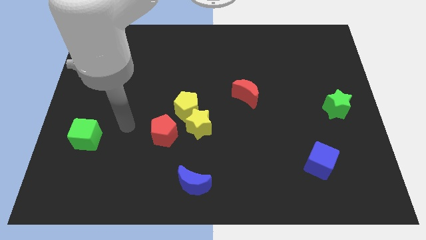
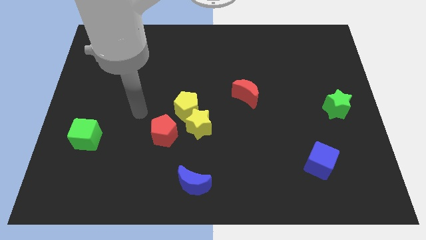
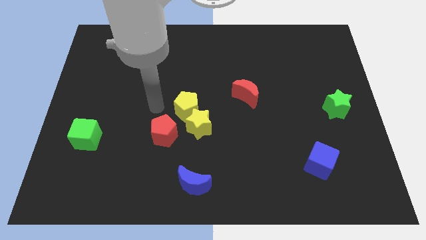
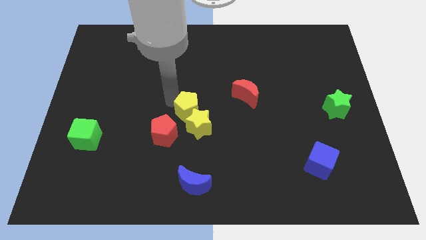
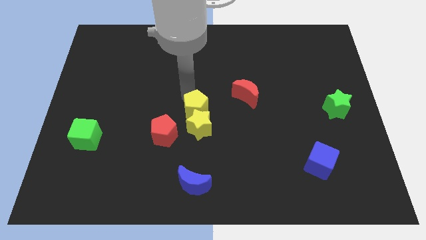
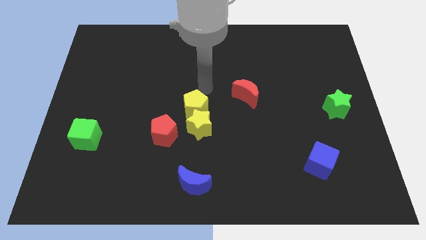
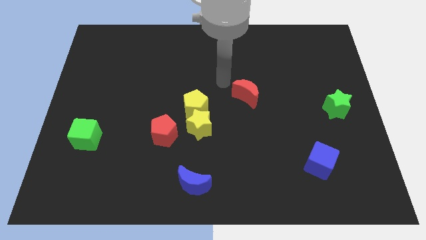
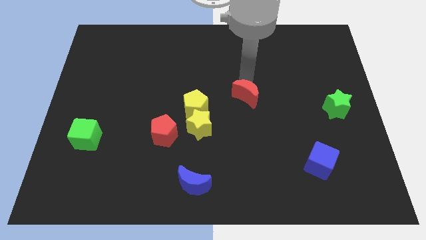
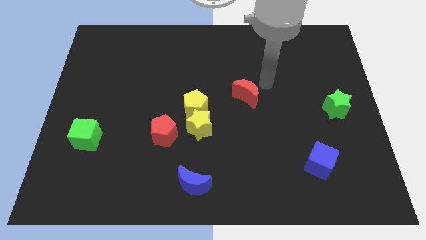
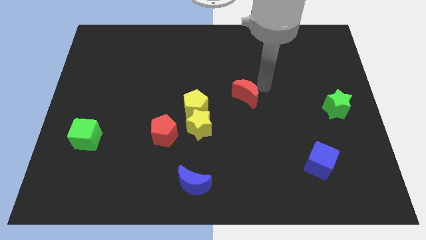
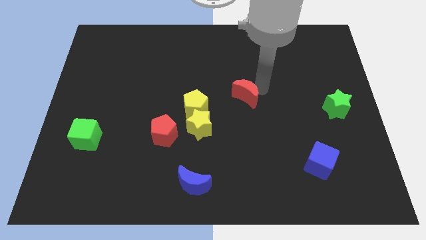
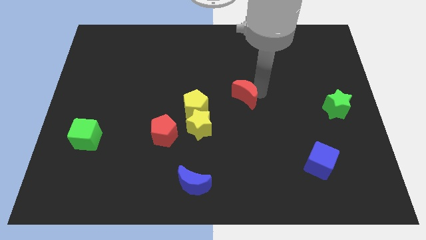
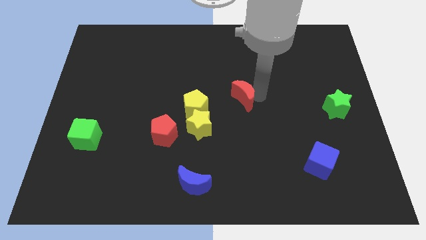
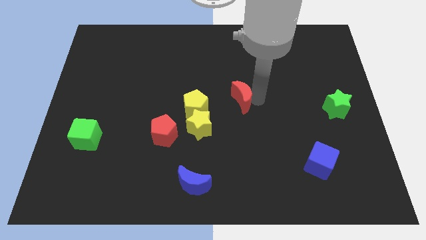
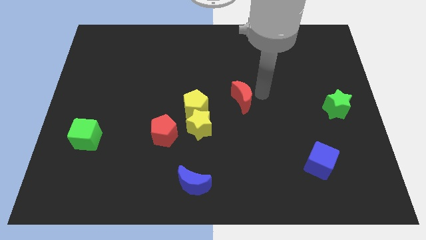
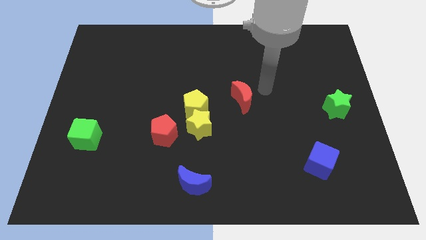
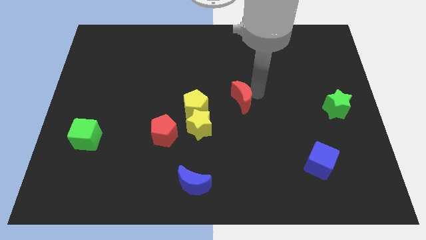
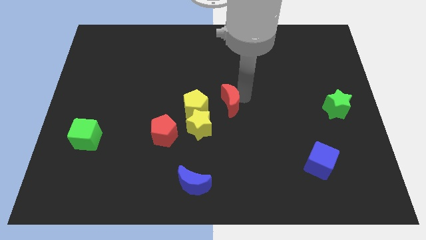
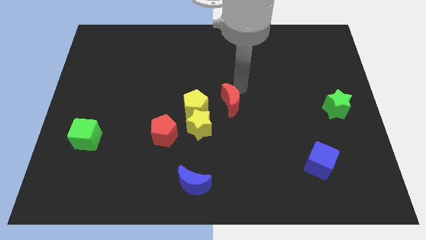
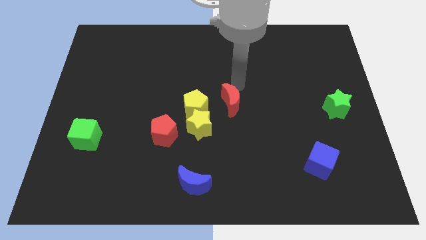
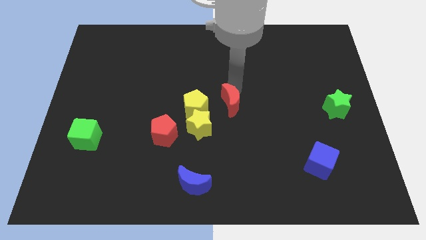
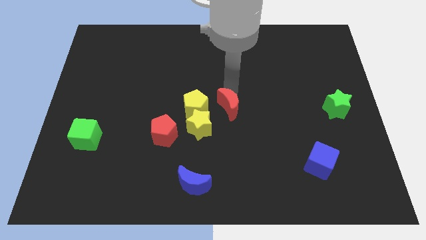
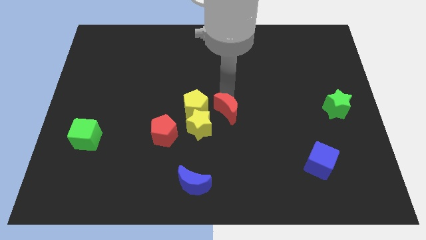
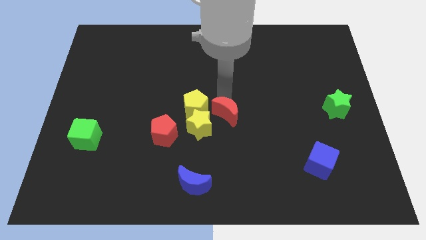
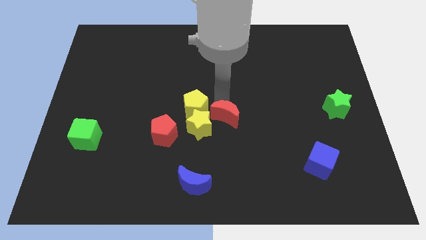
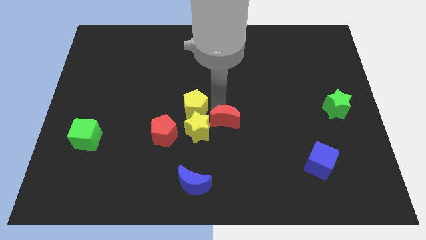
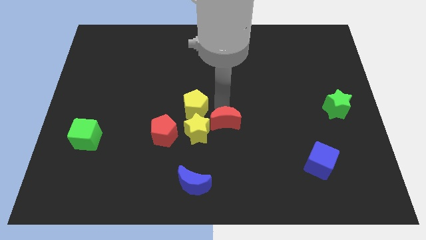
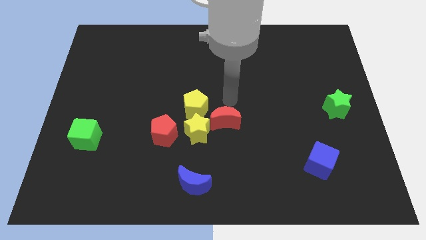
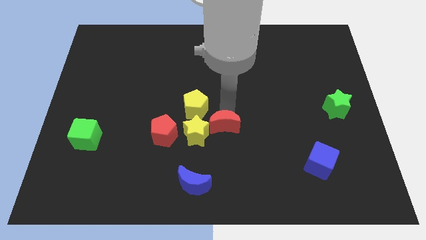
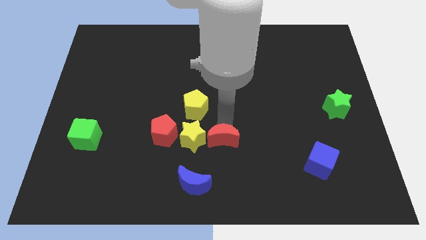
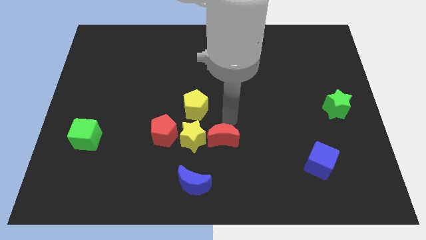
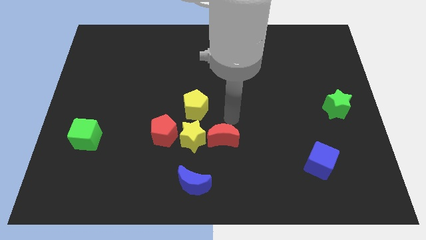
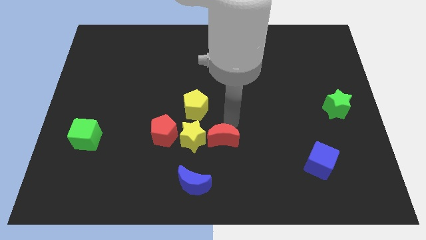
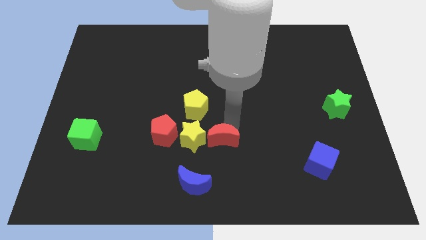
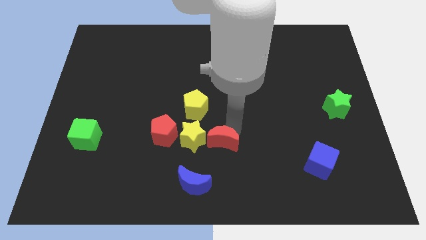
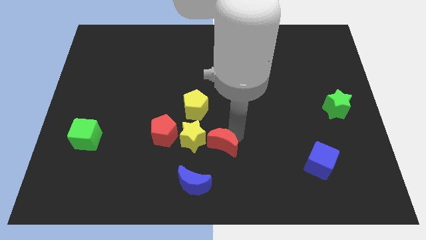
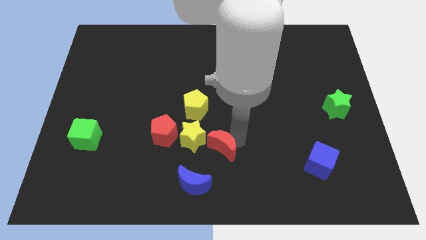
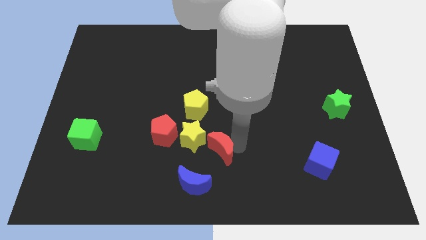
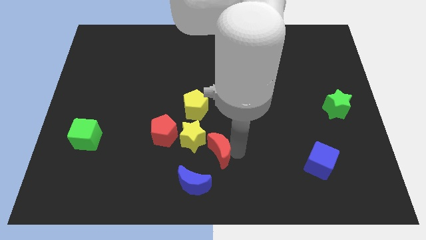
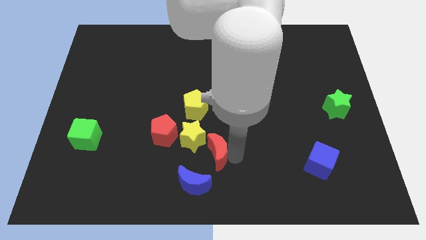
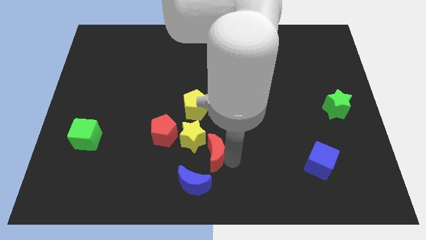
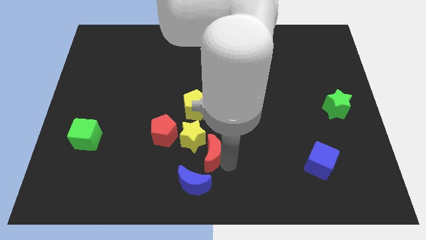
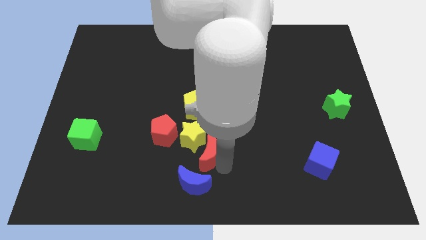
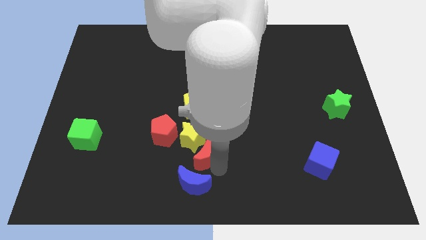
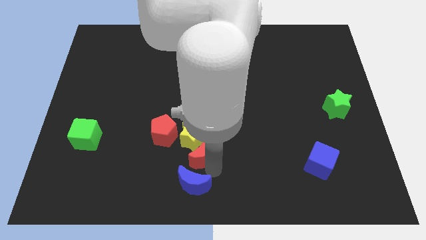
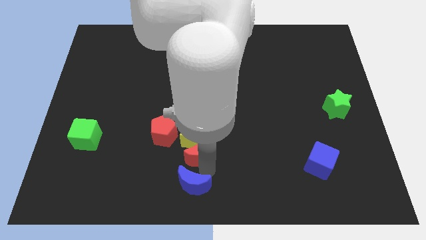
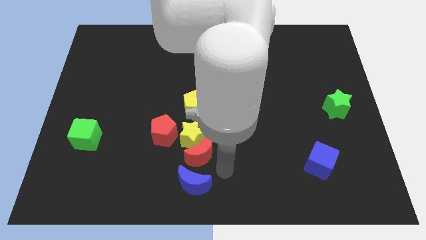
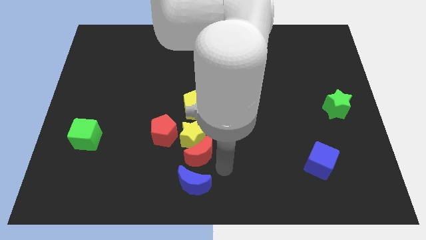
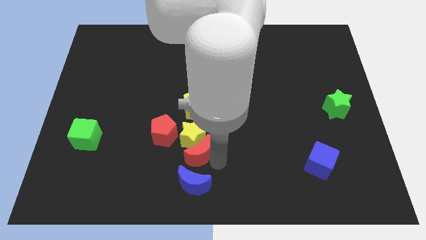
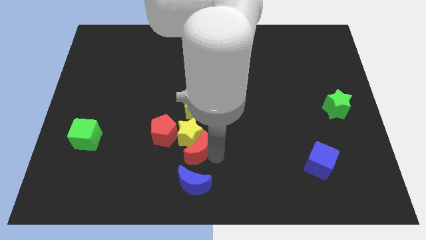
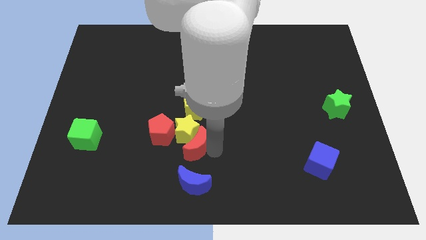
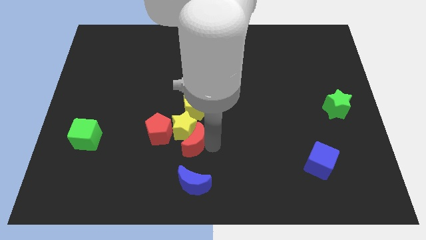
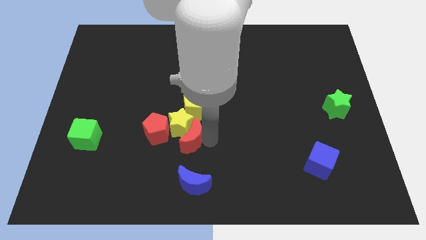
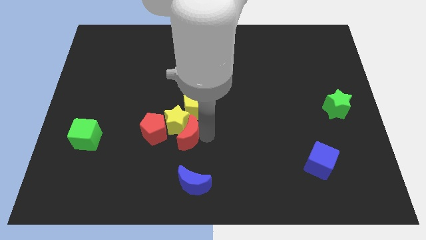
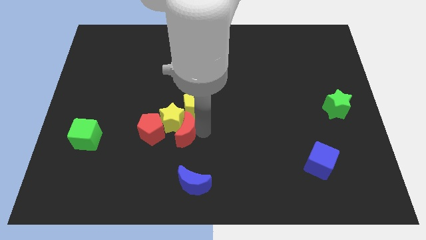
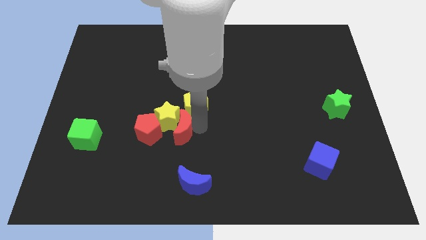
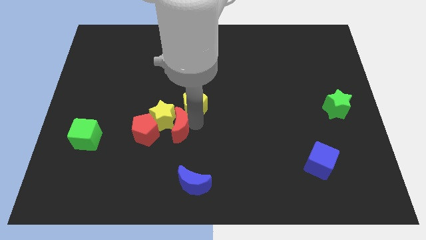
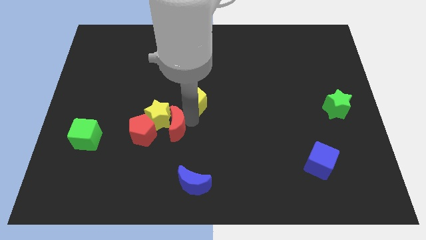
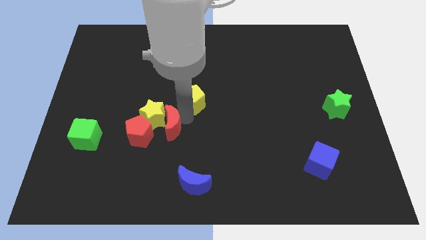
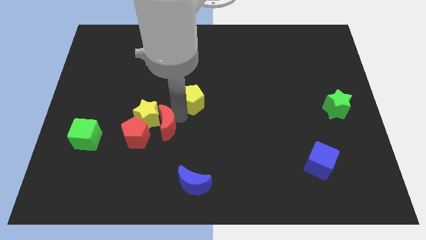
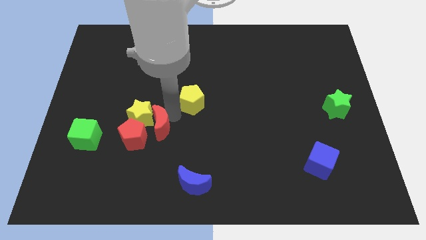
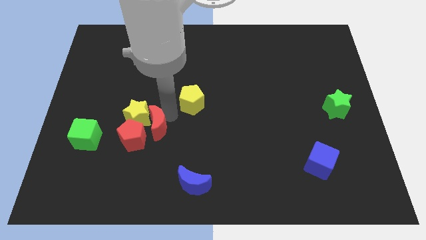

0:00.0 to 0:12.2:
push the red moon next to the red pentagon
